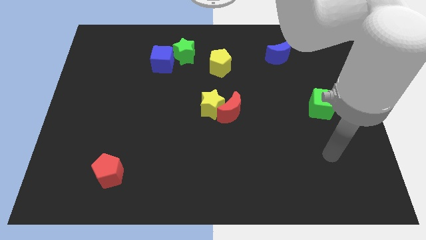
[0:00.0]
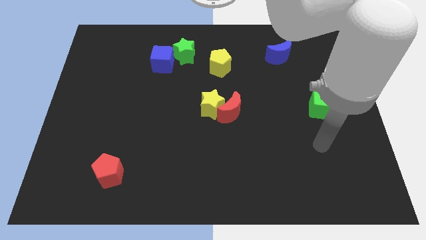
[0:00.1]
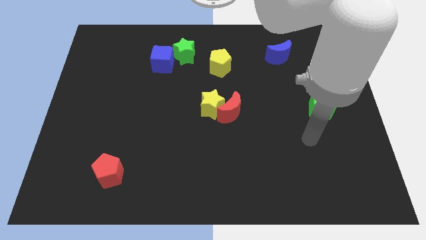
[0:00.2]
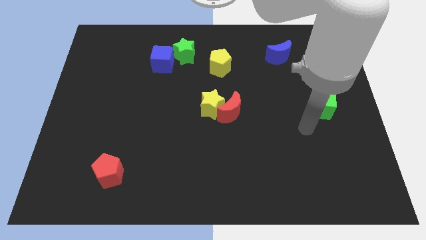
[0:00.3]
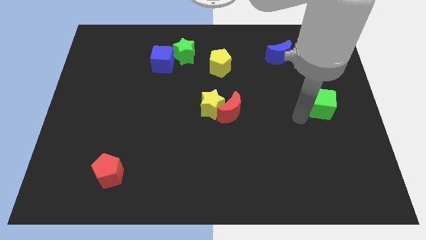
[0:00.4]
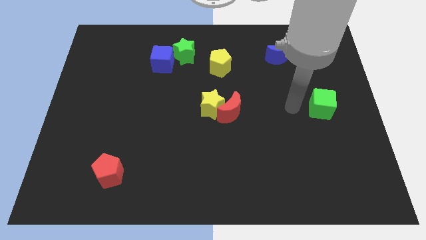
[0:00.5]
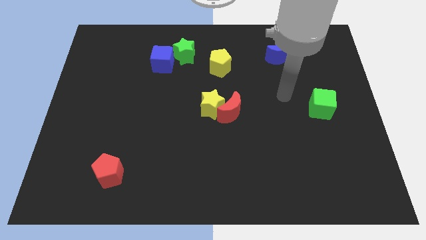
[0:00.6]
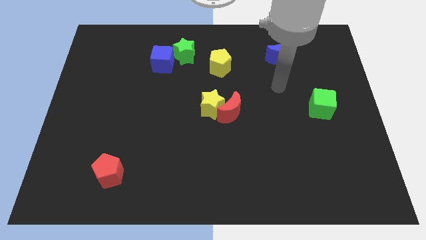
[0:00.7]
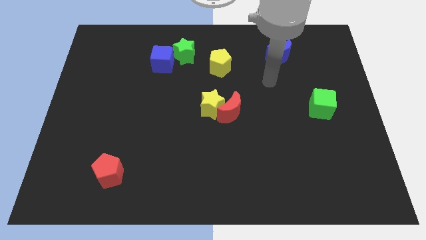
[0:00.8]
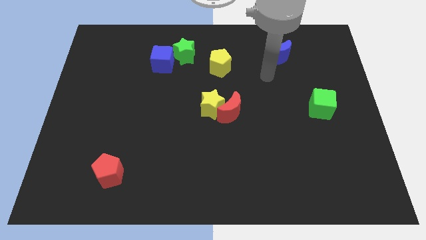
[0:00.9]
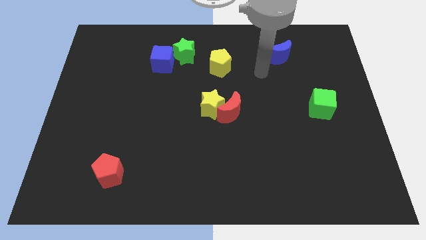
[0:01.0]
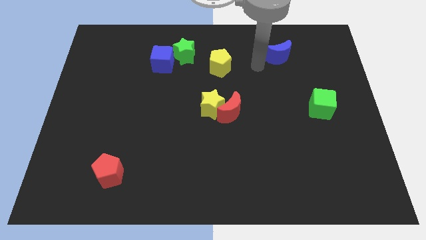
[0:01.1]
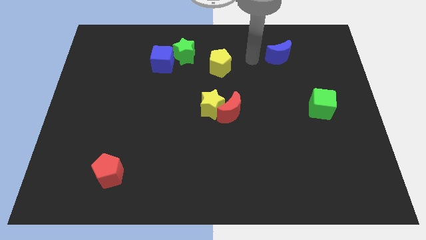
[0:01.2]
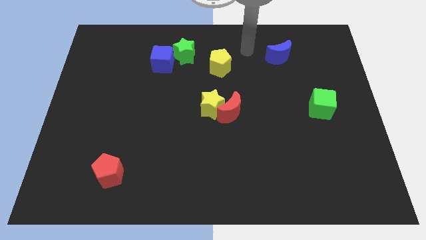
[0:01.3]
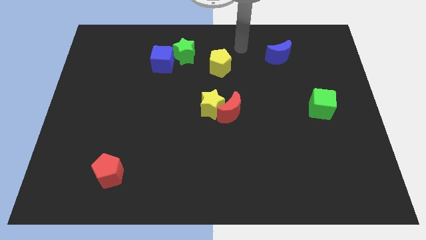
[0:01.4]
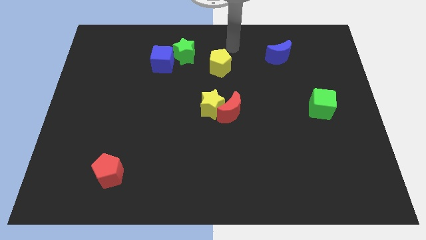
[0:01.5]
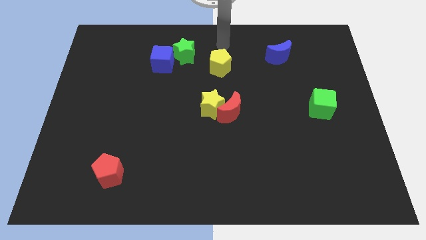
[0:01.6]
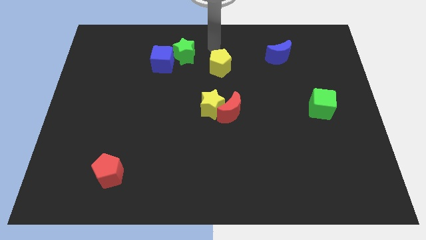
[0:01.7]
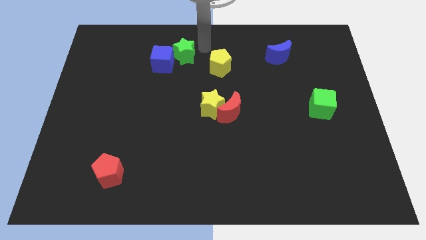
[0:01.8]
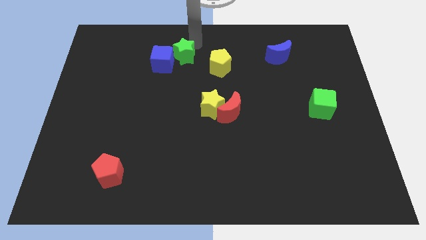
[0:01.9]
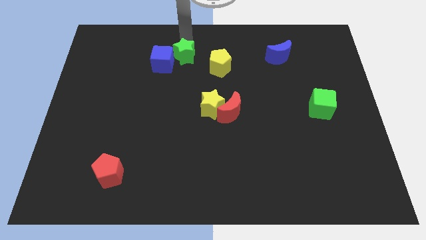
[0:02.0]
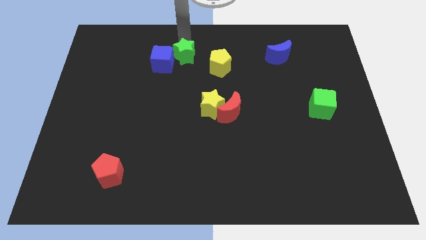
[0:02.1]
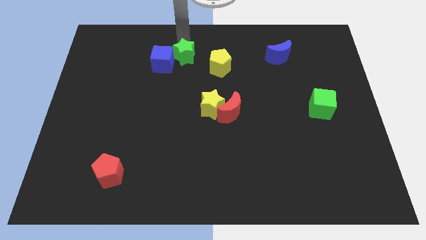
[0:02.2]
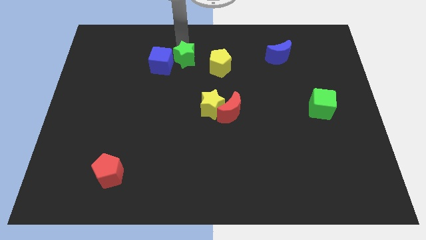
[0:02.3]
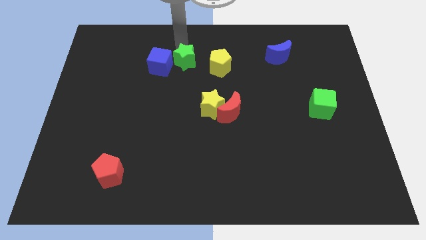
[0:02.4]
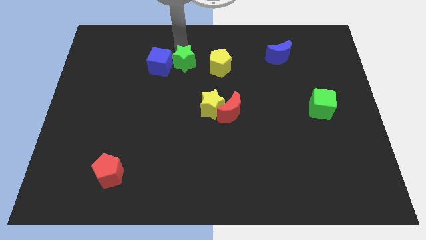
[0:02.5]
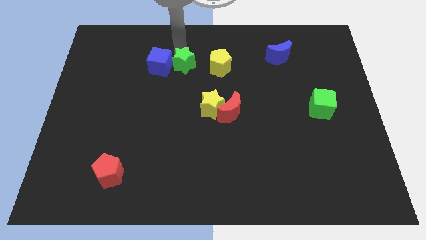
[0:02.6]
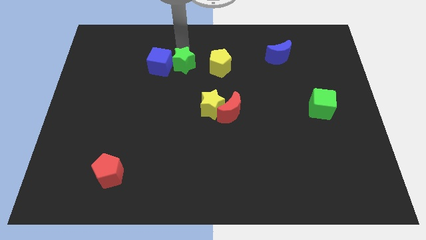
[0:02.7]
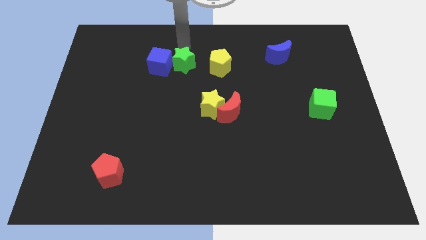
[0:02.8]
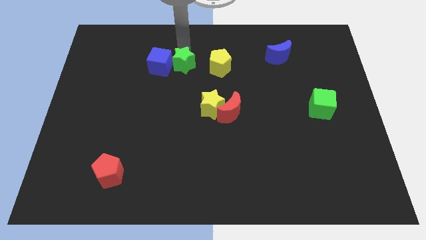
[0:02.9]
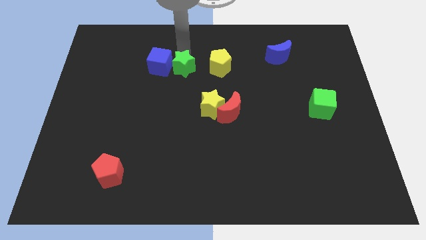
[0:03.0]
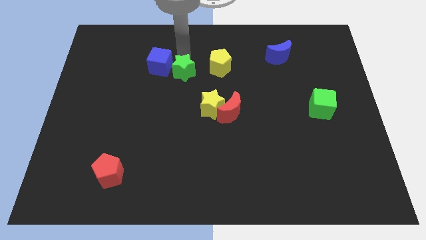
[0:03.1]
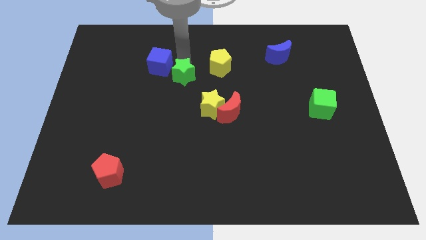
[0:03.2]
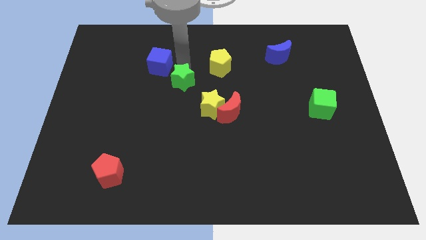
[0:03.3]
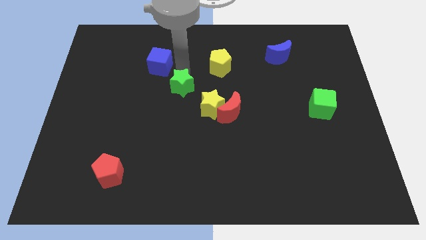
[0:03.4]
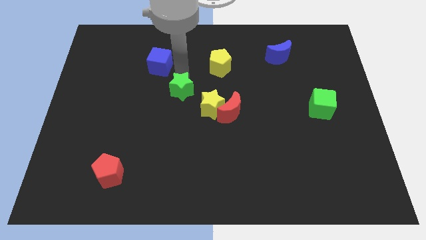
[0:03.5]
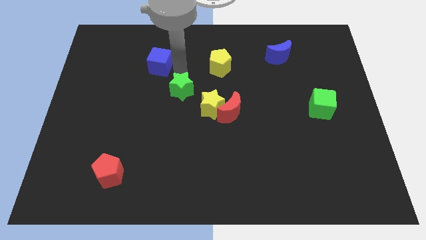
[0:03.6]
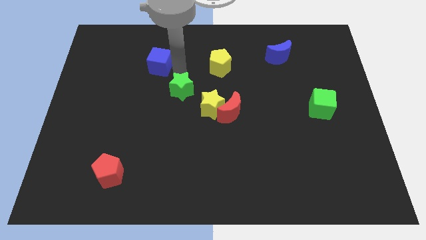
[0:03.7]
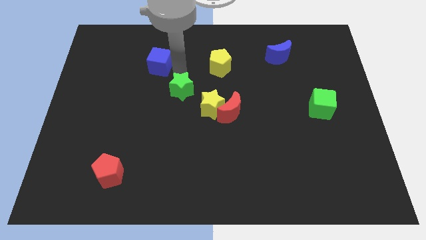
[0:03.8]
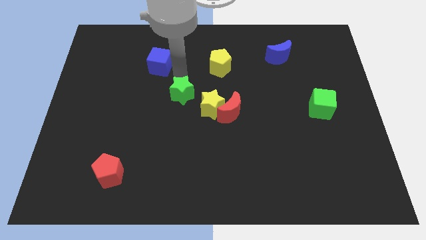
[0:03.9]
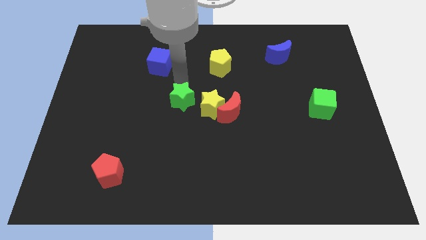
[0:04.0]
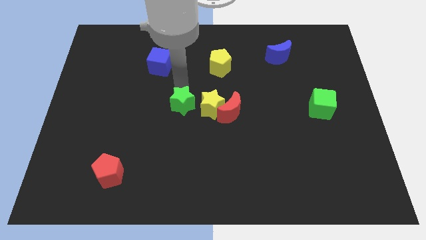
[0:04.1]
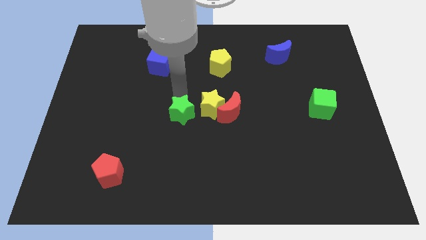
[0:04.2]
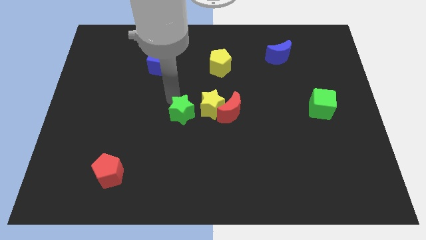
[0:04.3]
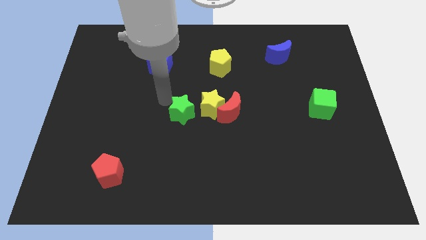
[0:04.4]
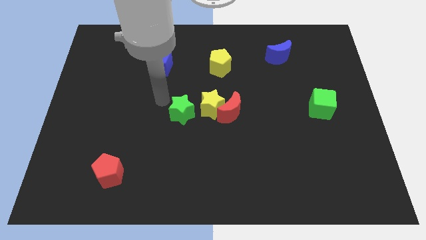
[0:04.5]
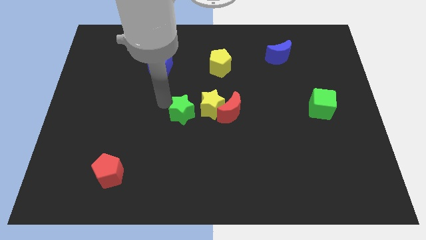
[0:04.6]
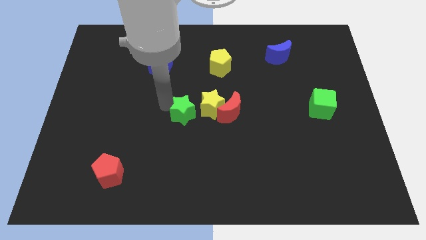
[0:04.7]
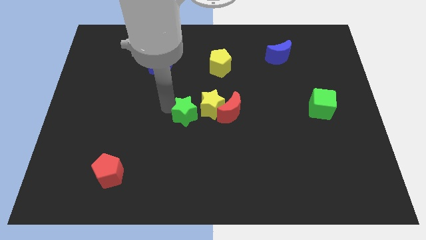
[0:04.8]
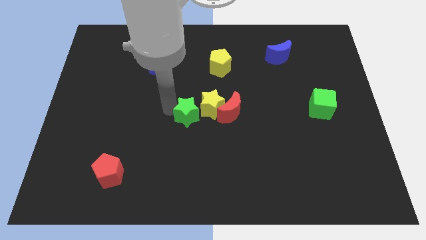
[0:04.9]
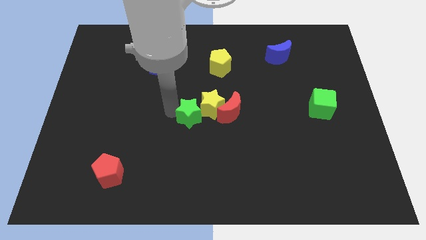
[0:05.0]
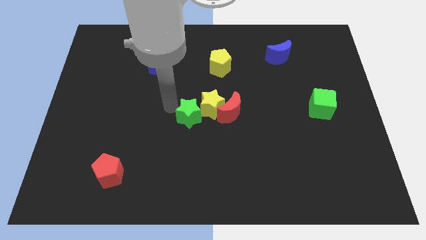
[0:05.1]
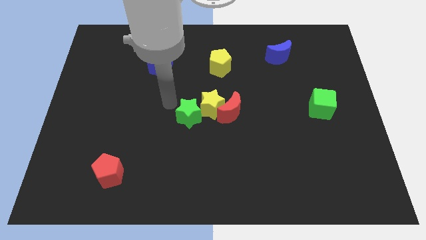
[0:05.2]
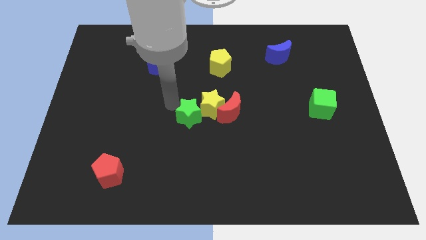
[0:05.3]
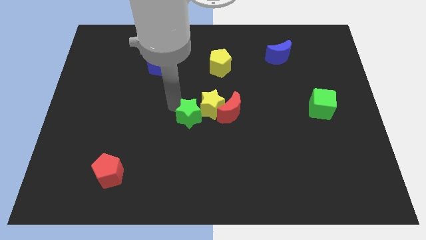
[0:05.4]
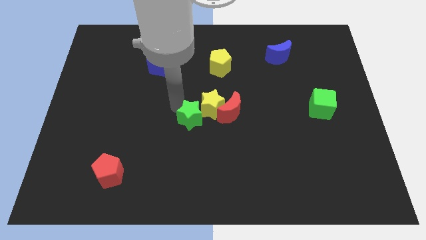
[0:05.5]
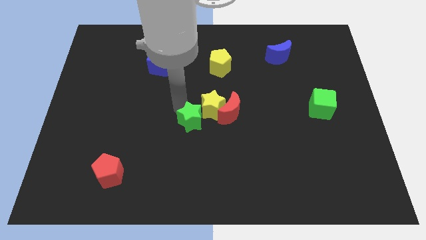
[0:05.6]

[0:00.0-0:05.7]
put the green star diagonally down and to the left of the red moon

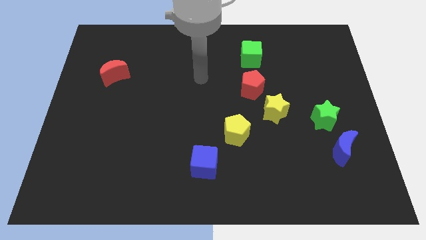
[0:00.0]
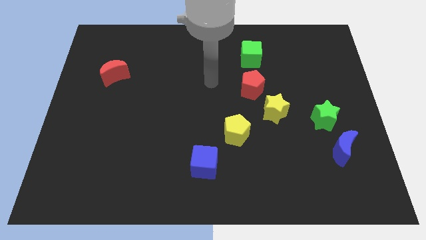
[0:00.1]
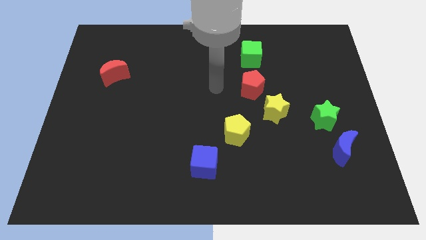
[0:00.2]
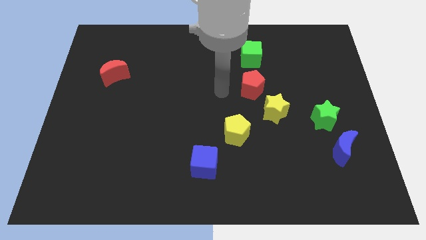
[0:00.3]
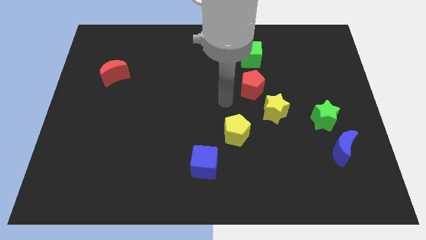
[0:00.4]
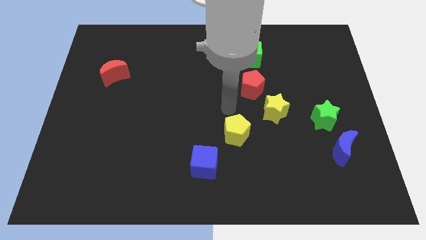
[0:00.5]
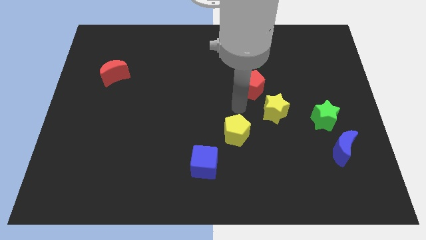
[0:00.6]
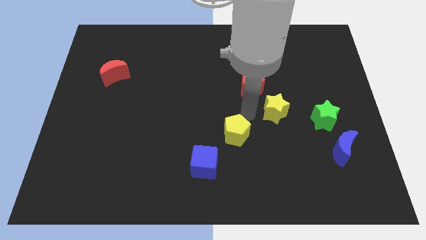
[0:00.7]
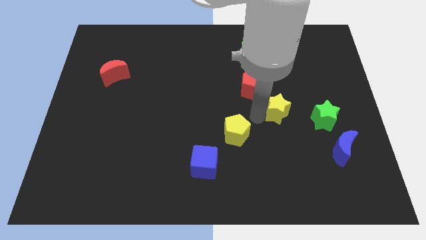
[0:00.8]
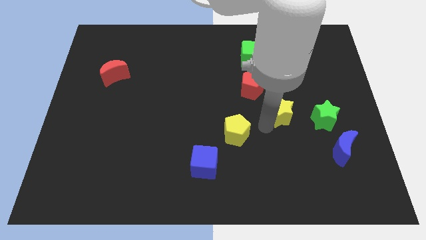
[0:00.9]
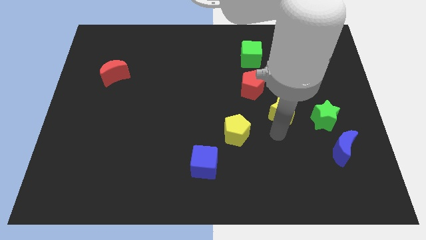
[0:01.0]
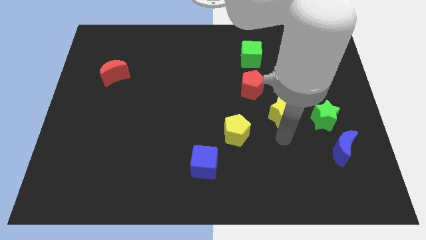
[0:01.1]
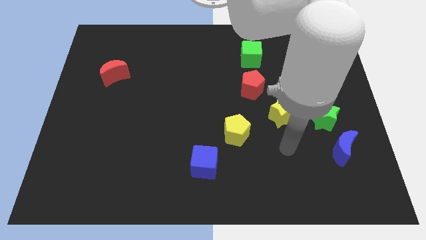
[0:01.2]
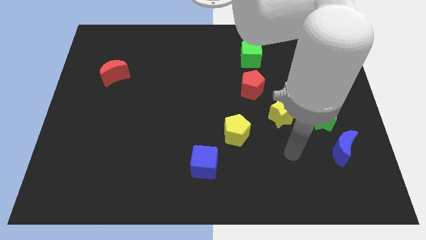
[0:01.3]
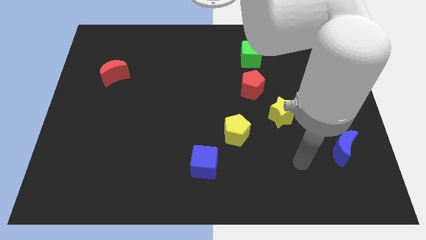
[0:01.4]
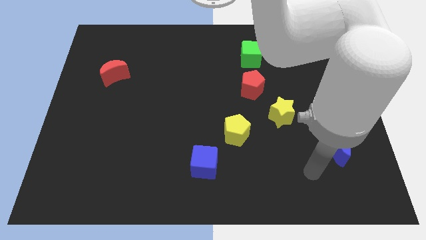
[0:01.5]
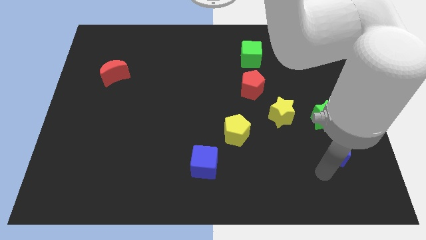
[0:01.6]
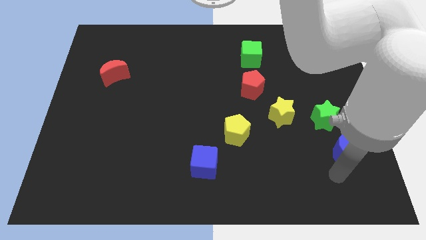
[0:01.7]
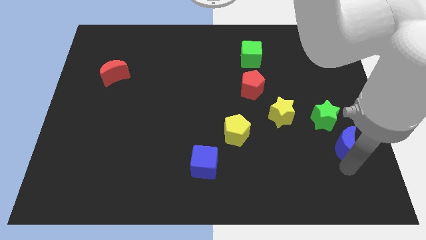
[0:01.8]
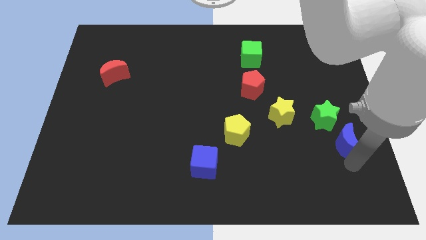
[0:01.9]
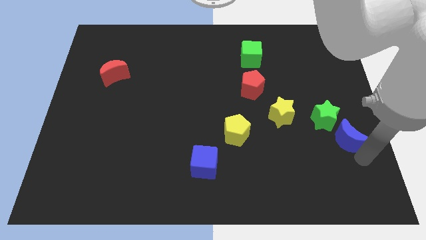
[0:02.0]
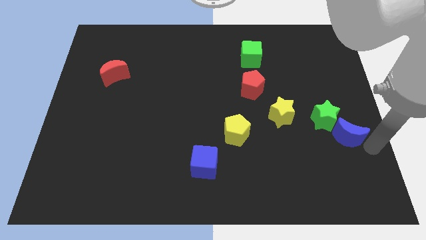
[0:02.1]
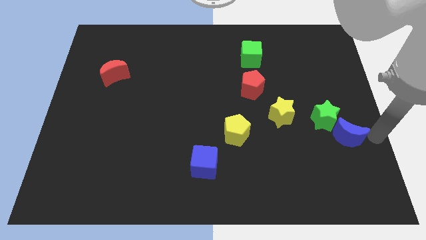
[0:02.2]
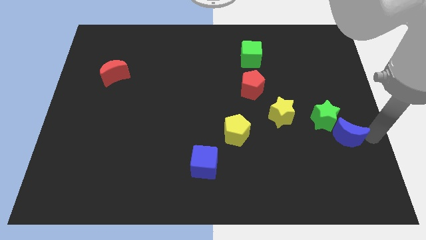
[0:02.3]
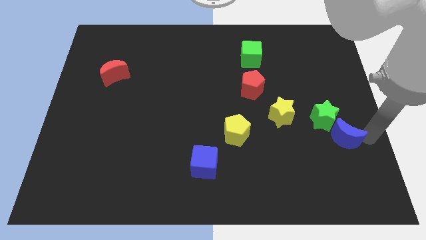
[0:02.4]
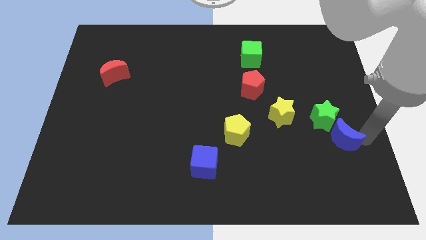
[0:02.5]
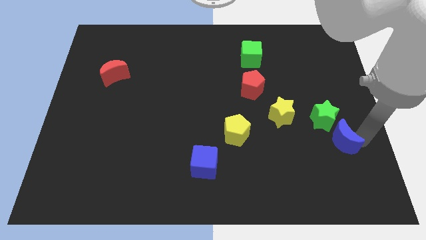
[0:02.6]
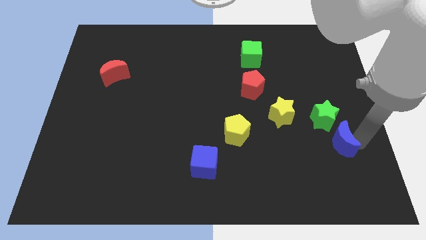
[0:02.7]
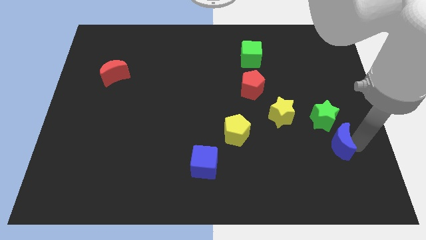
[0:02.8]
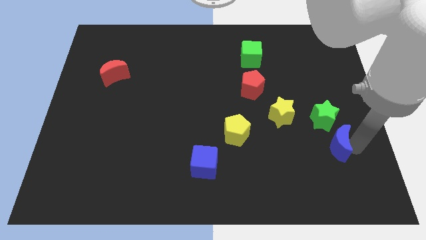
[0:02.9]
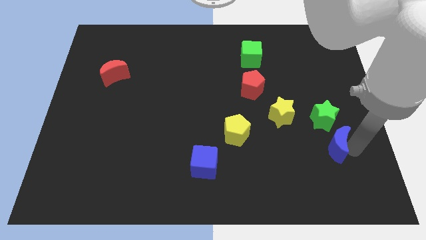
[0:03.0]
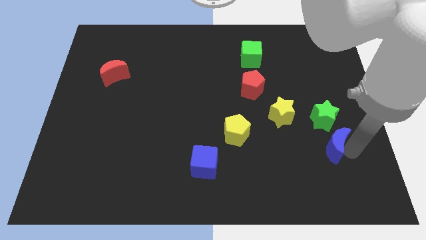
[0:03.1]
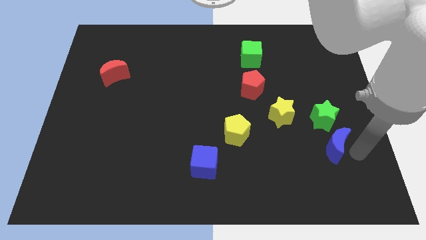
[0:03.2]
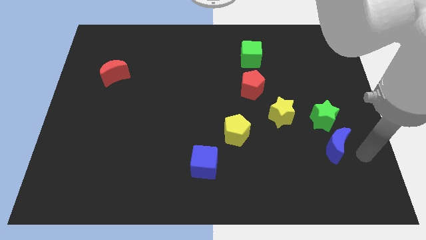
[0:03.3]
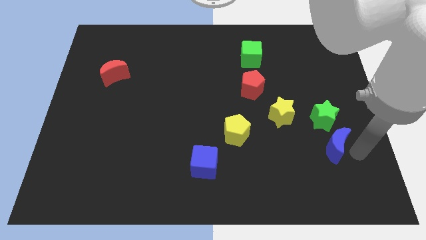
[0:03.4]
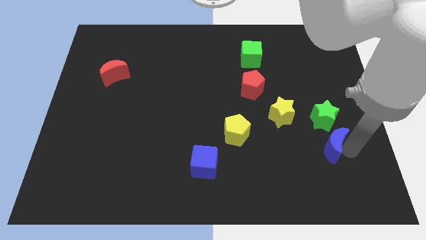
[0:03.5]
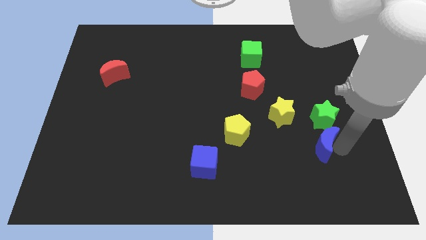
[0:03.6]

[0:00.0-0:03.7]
slide the blue moon diagonally down and to the left of the green star
